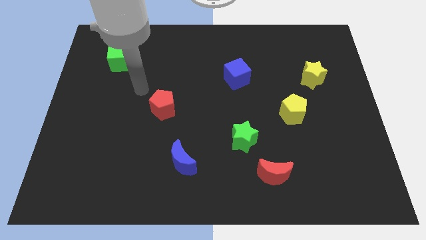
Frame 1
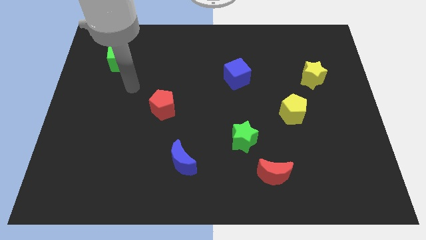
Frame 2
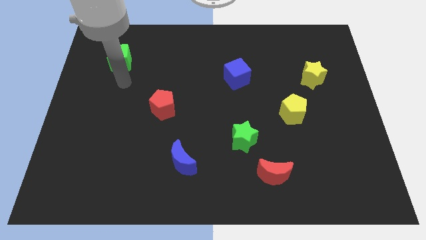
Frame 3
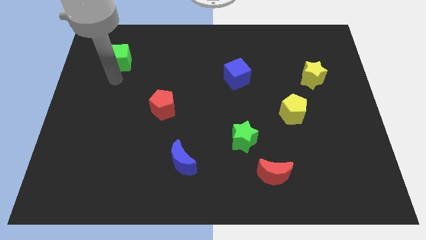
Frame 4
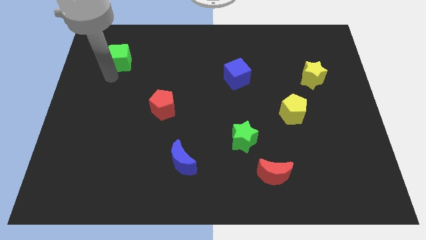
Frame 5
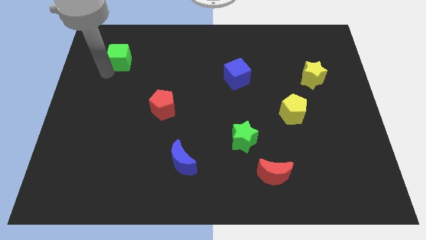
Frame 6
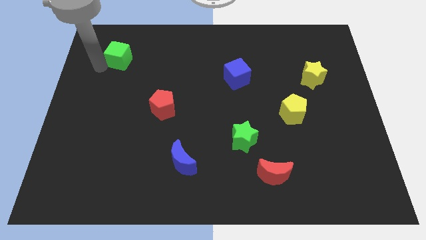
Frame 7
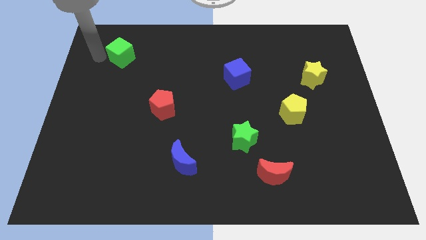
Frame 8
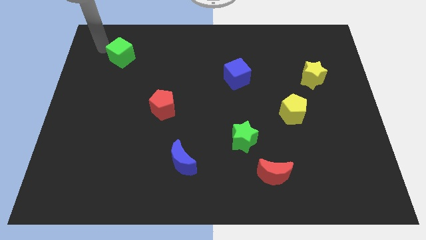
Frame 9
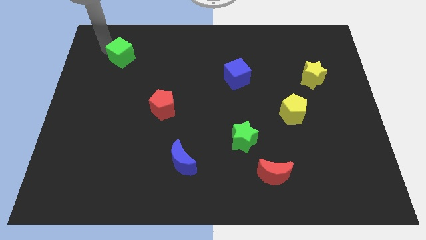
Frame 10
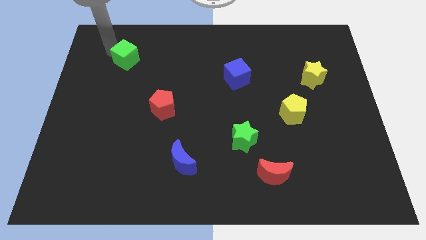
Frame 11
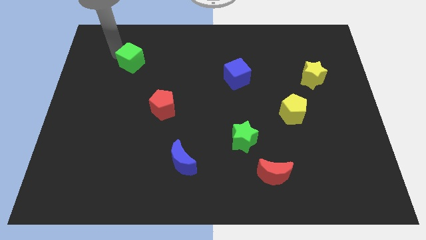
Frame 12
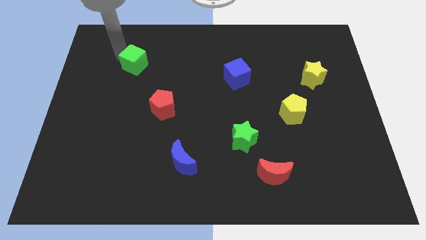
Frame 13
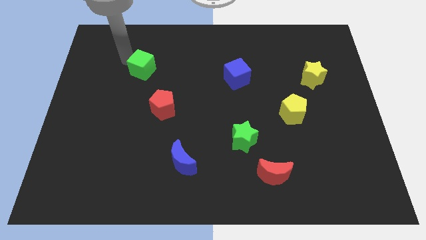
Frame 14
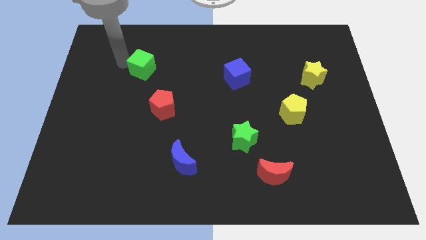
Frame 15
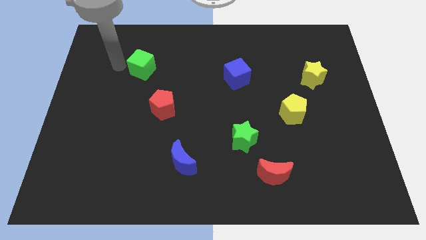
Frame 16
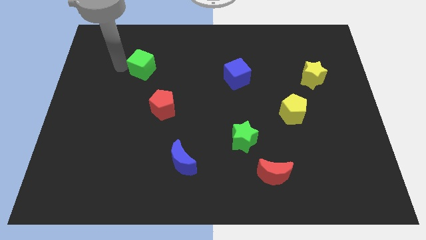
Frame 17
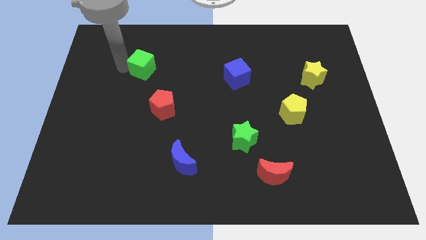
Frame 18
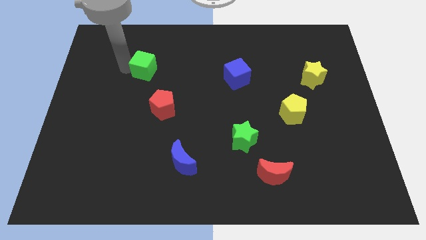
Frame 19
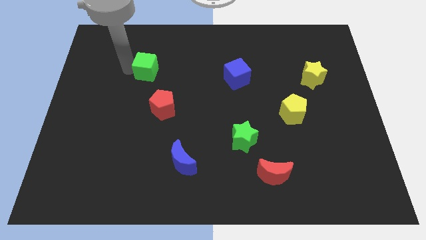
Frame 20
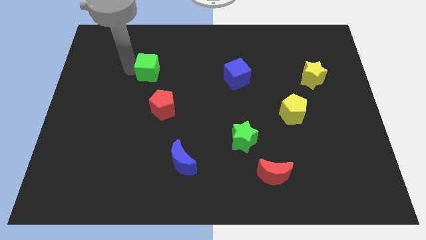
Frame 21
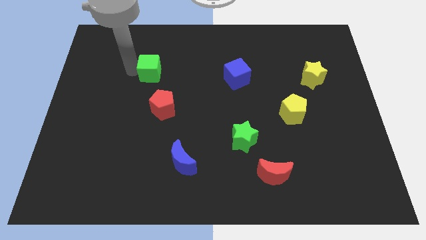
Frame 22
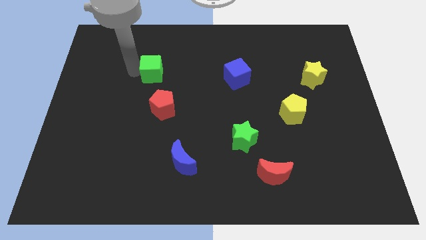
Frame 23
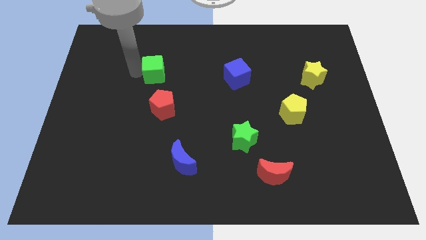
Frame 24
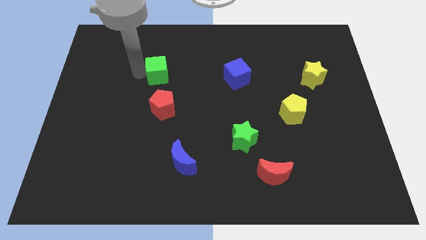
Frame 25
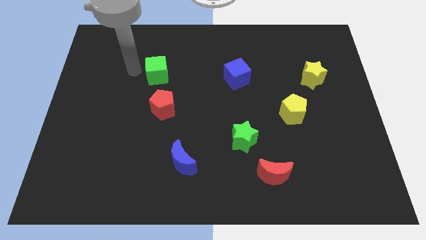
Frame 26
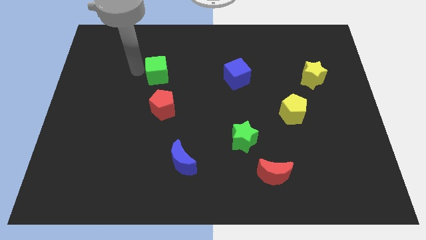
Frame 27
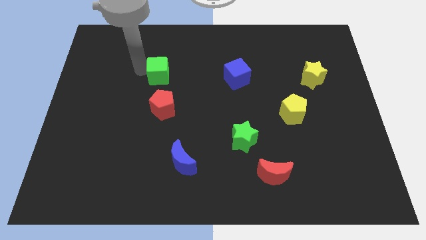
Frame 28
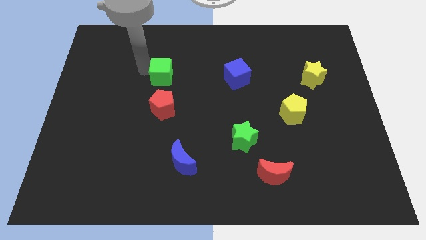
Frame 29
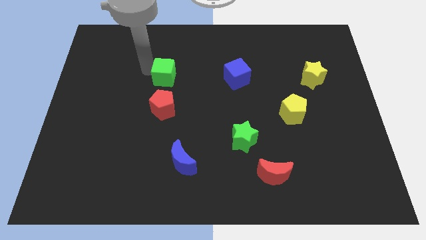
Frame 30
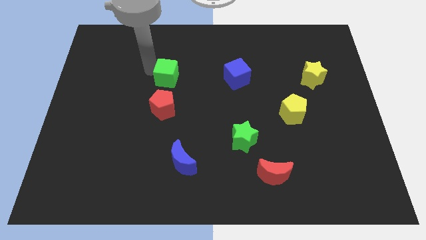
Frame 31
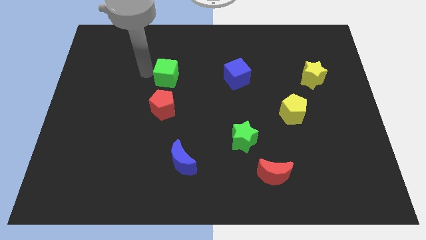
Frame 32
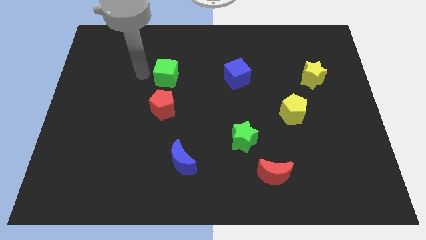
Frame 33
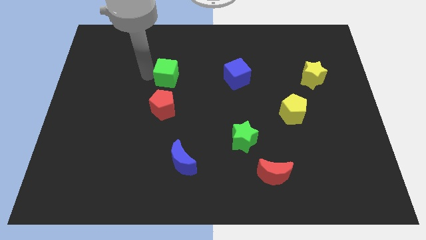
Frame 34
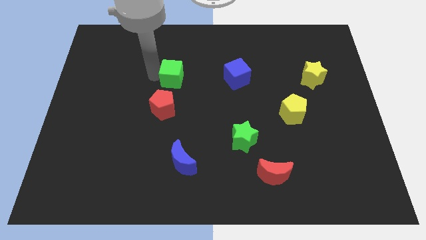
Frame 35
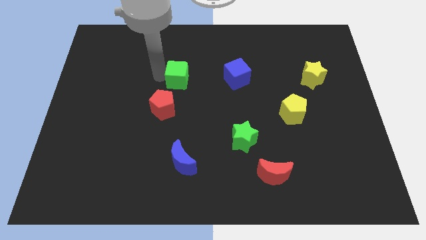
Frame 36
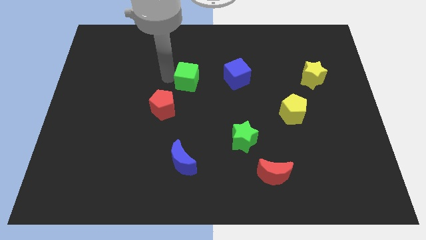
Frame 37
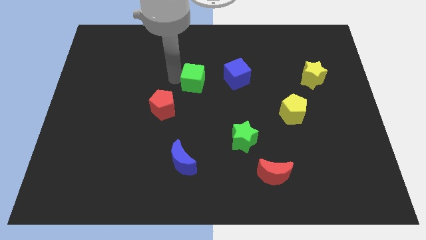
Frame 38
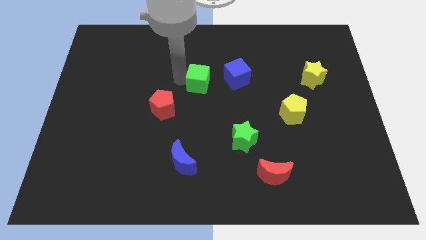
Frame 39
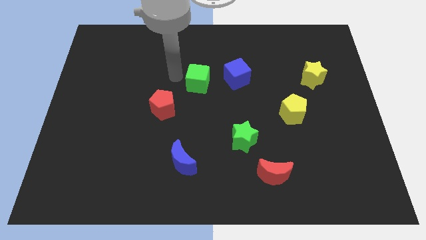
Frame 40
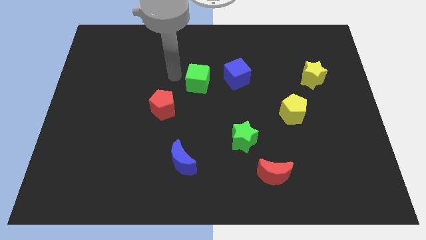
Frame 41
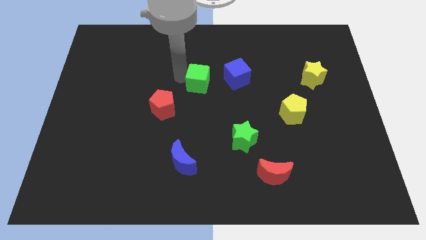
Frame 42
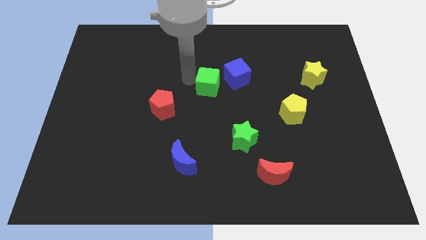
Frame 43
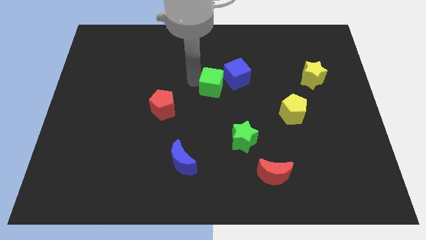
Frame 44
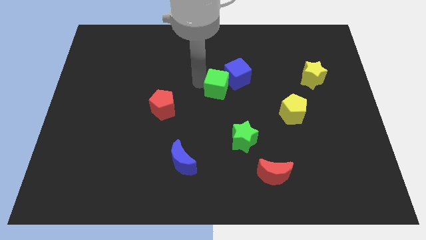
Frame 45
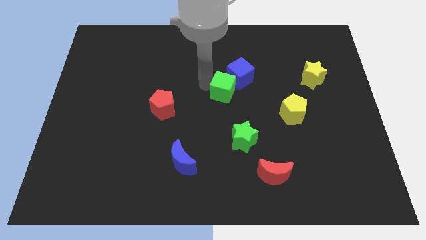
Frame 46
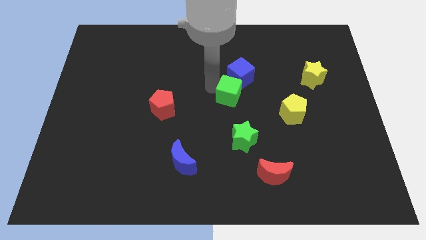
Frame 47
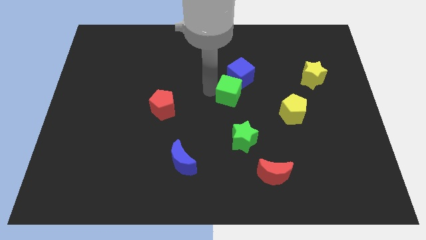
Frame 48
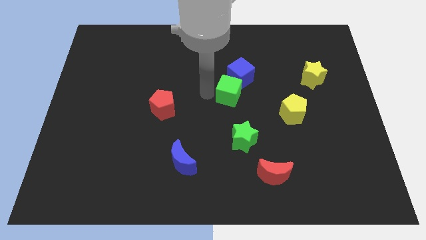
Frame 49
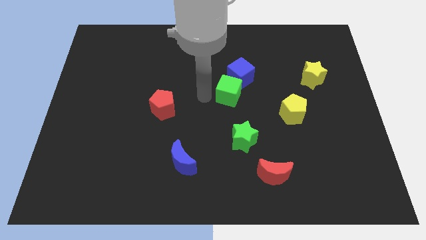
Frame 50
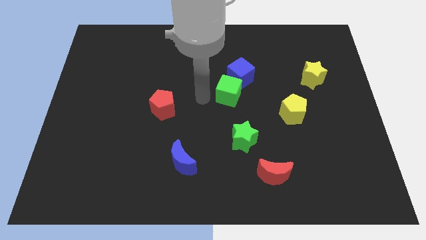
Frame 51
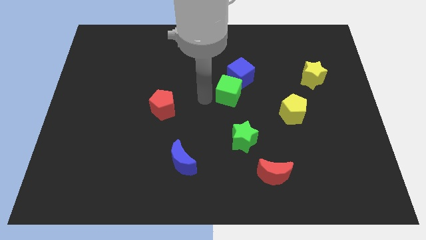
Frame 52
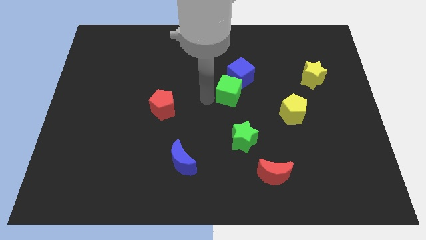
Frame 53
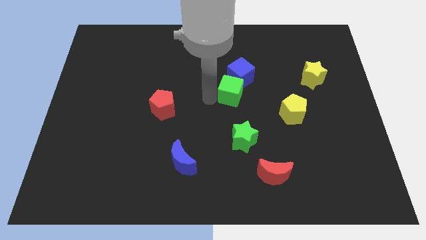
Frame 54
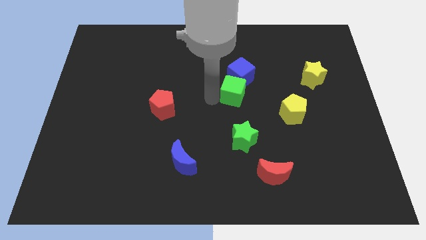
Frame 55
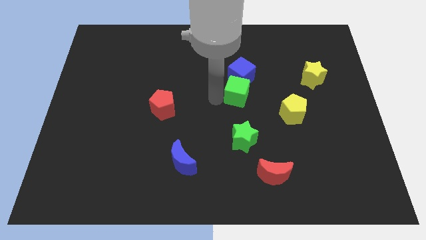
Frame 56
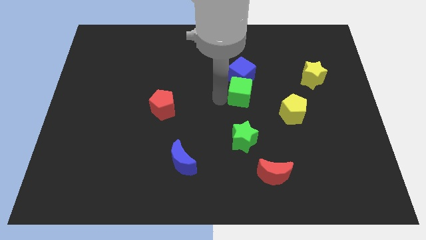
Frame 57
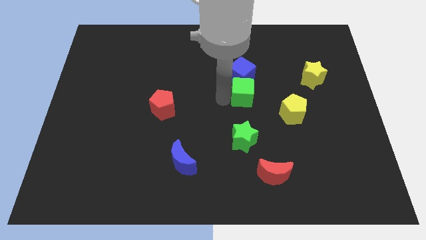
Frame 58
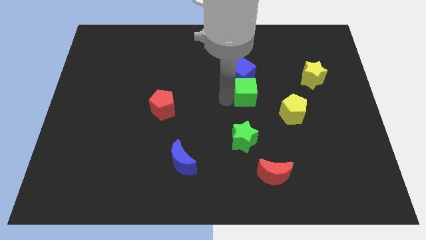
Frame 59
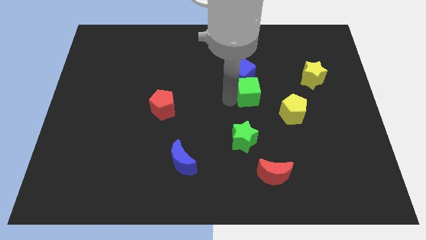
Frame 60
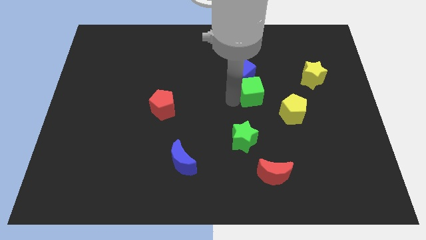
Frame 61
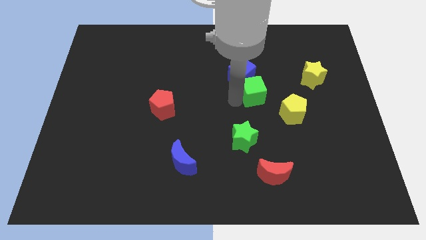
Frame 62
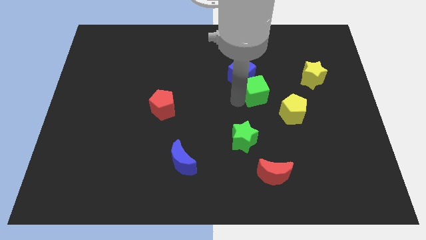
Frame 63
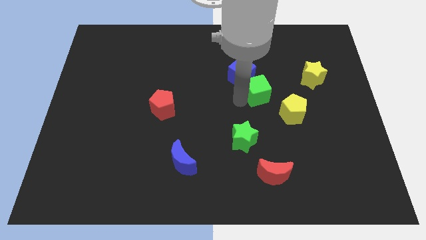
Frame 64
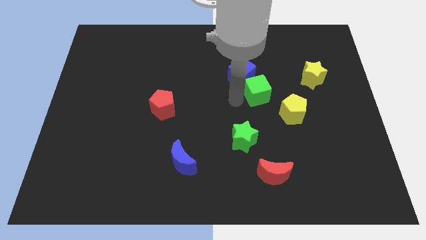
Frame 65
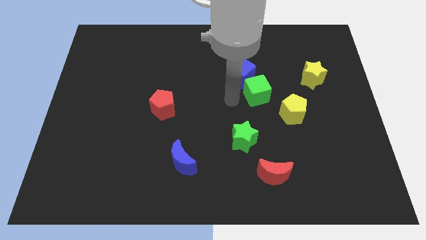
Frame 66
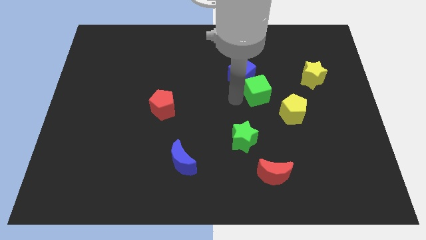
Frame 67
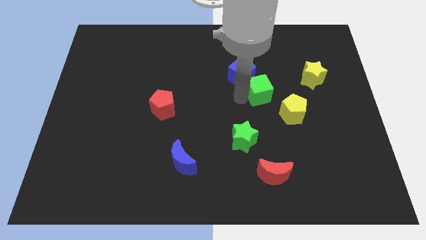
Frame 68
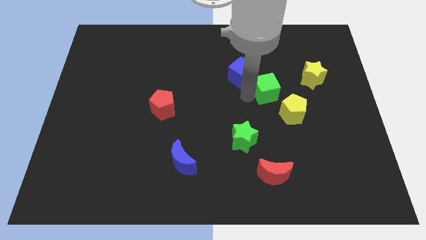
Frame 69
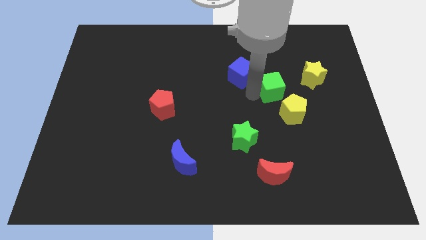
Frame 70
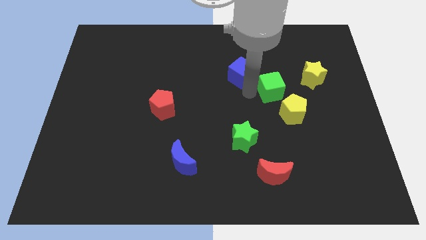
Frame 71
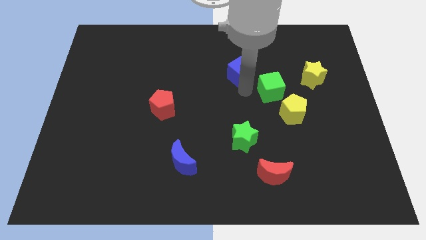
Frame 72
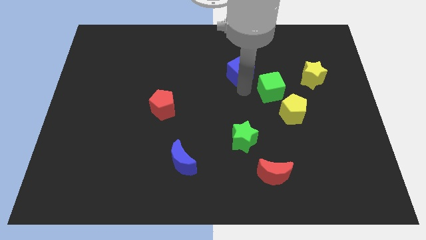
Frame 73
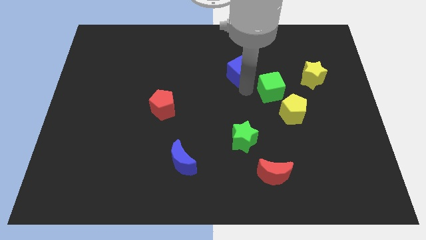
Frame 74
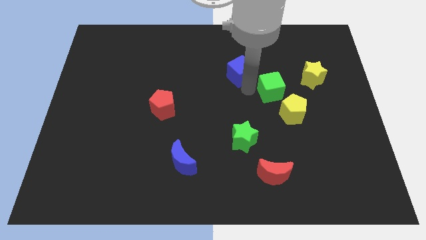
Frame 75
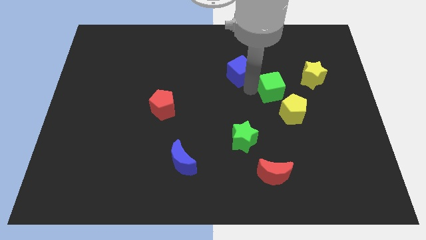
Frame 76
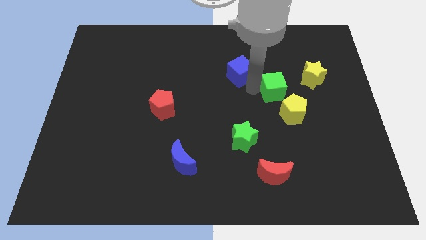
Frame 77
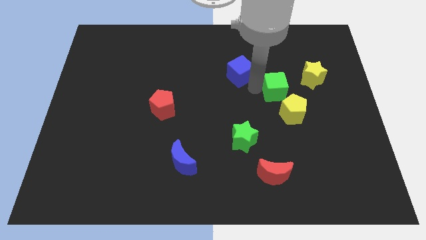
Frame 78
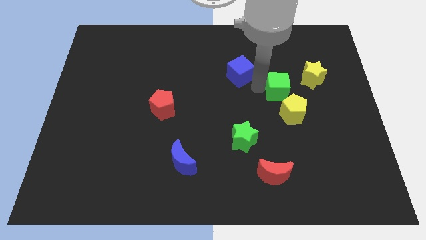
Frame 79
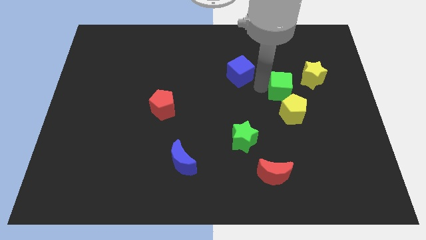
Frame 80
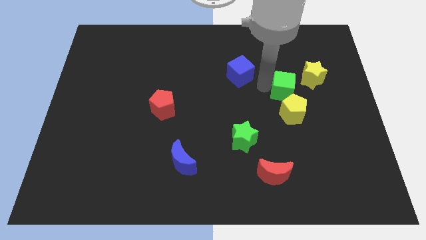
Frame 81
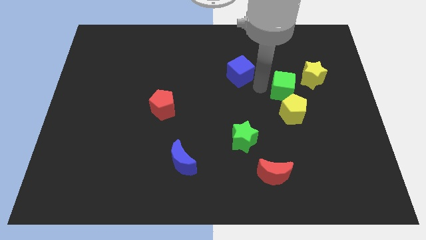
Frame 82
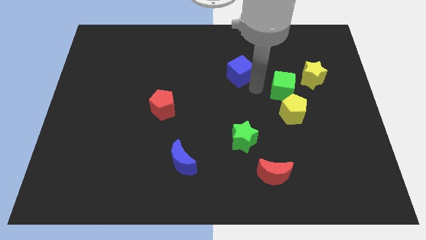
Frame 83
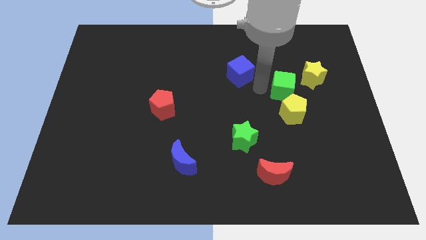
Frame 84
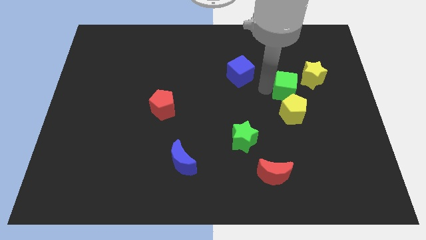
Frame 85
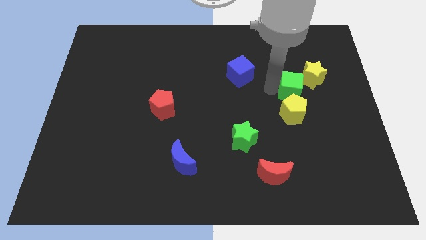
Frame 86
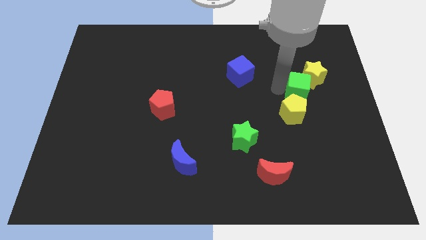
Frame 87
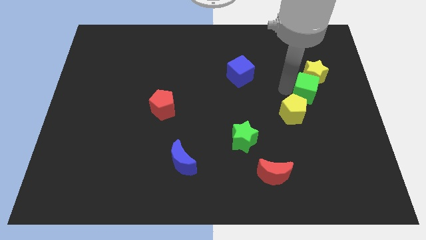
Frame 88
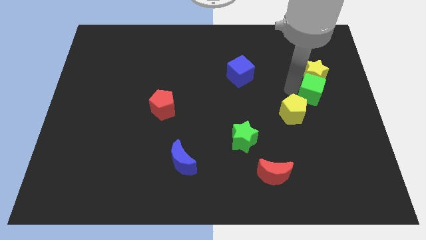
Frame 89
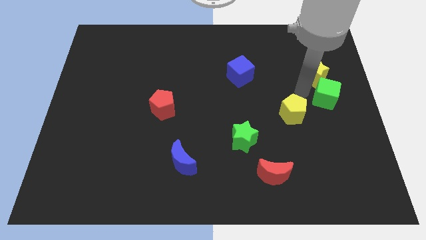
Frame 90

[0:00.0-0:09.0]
slide the green cube to the right side of the board
